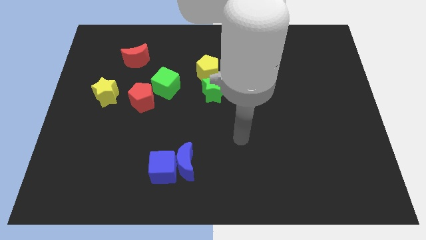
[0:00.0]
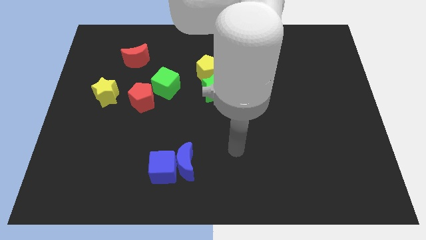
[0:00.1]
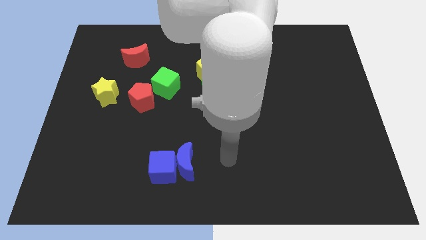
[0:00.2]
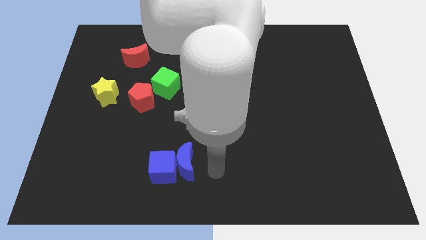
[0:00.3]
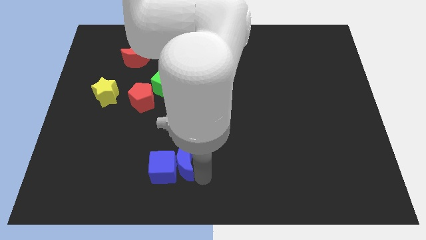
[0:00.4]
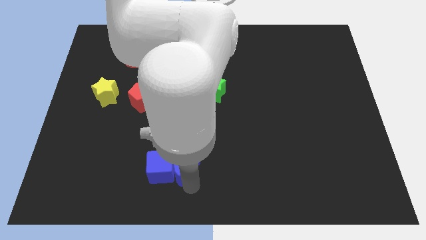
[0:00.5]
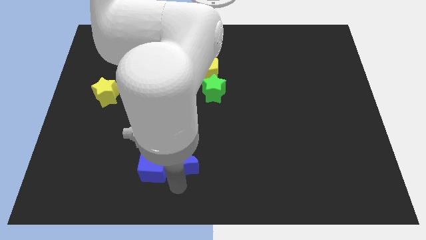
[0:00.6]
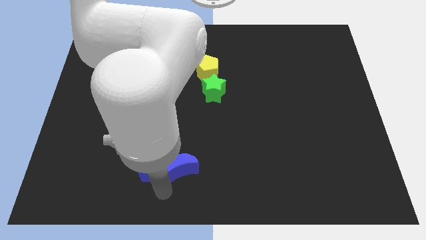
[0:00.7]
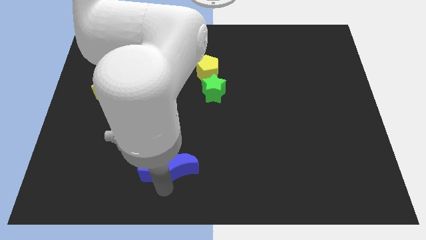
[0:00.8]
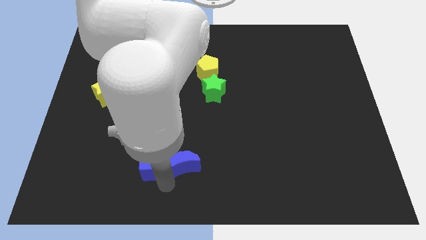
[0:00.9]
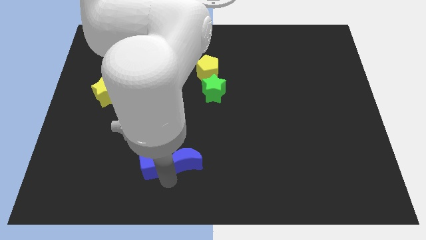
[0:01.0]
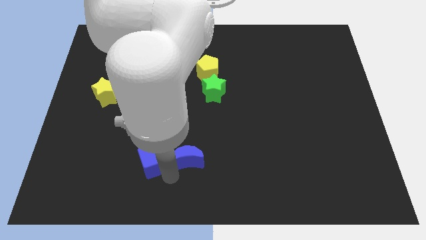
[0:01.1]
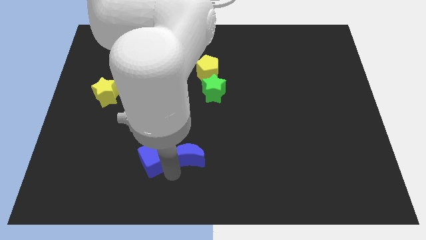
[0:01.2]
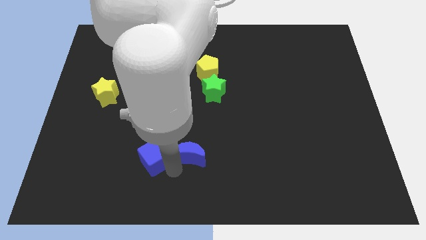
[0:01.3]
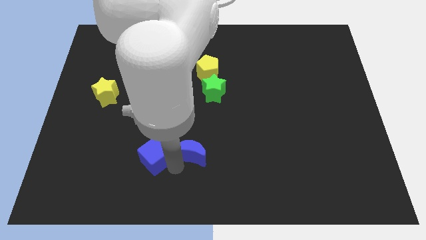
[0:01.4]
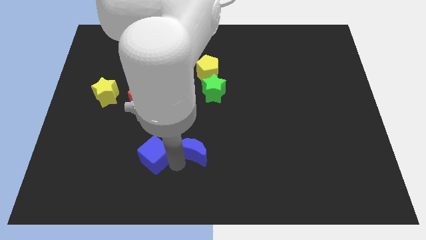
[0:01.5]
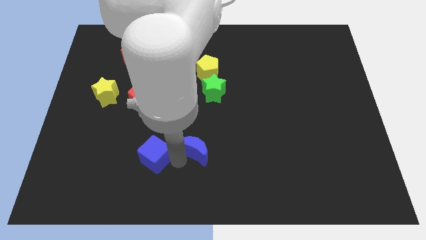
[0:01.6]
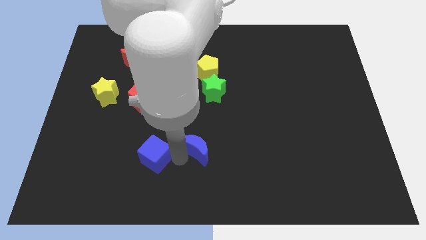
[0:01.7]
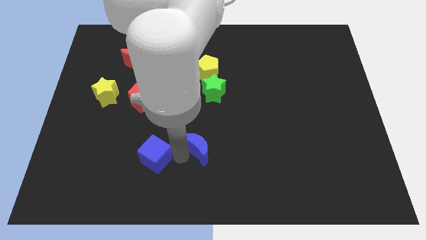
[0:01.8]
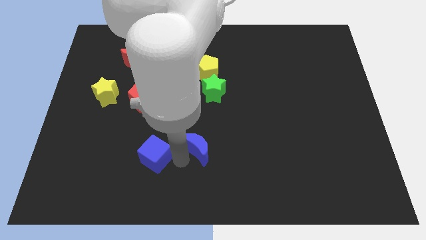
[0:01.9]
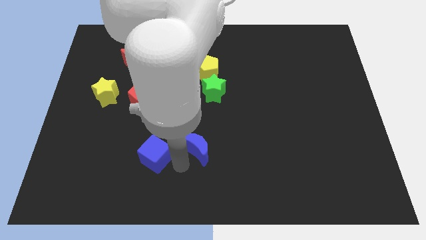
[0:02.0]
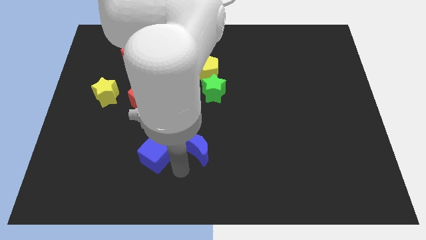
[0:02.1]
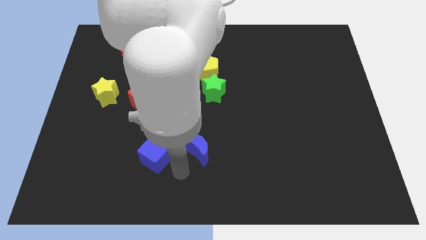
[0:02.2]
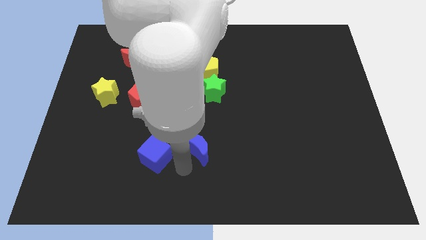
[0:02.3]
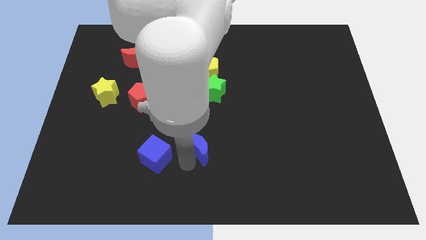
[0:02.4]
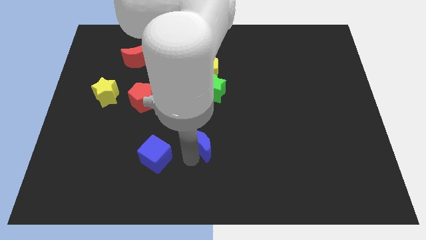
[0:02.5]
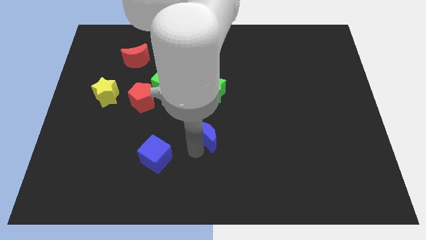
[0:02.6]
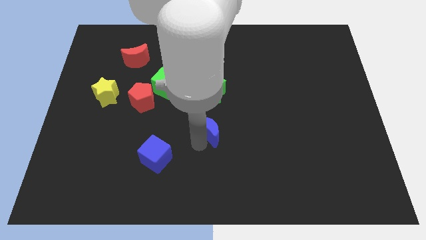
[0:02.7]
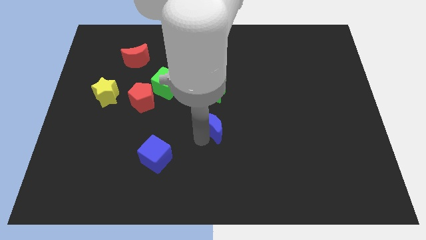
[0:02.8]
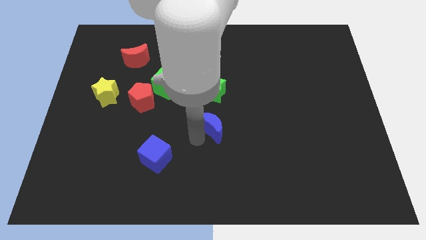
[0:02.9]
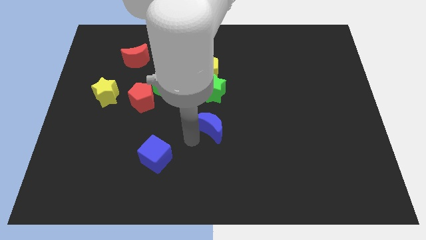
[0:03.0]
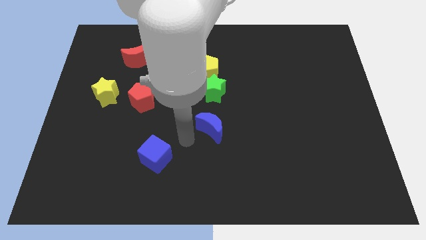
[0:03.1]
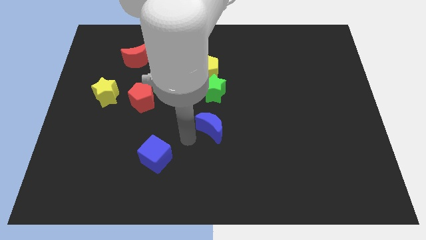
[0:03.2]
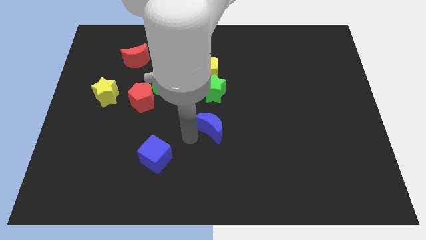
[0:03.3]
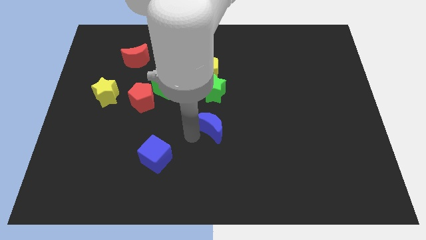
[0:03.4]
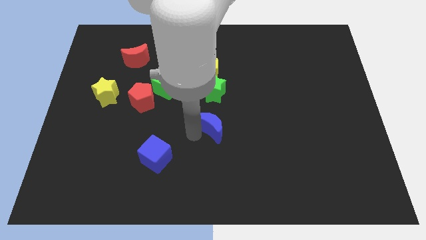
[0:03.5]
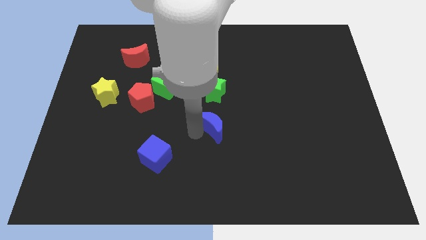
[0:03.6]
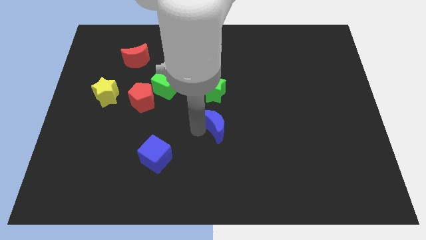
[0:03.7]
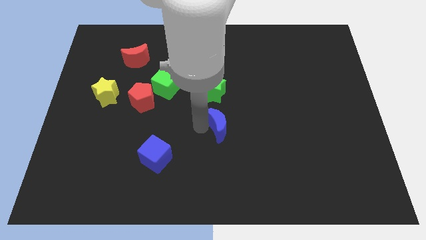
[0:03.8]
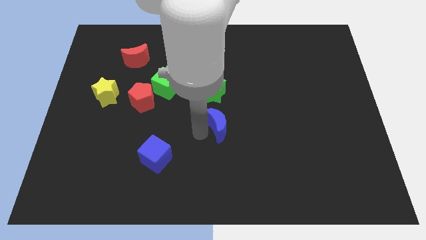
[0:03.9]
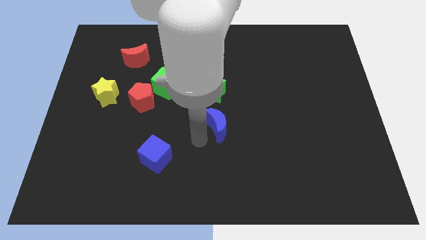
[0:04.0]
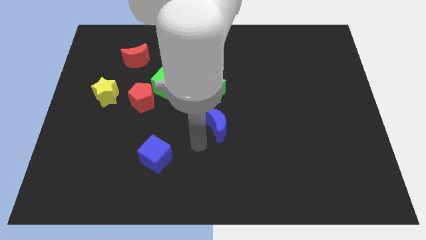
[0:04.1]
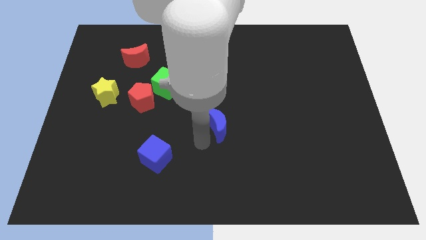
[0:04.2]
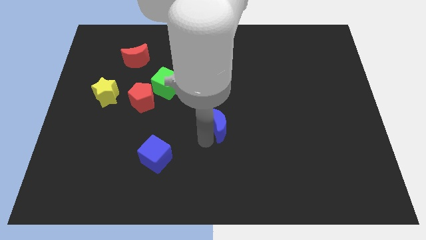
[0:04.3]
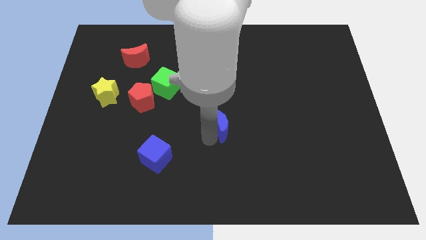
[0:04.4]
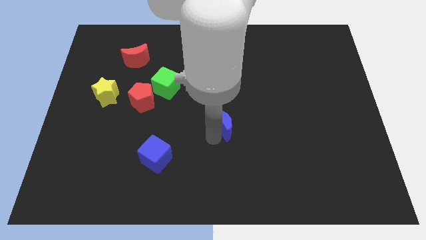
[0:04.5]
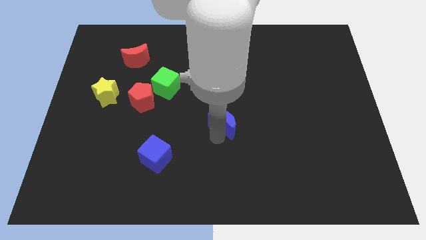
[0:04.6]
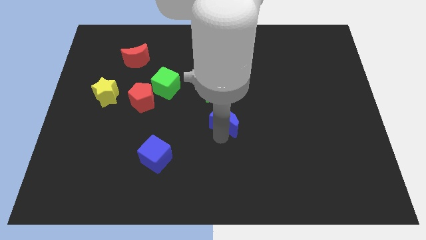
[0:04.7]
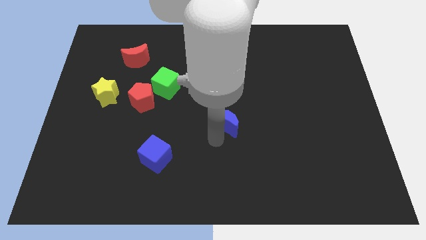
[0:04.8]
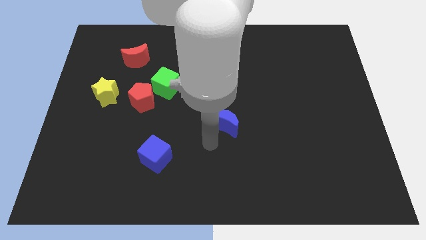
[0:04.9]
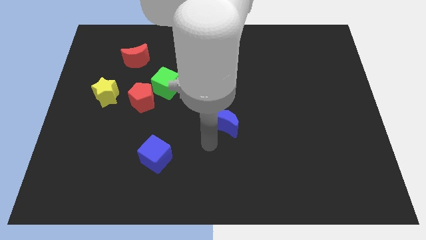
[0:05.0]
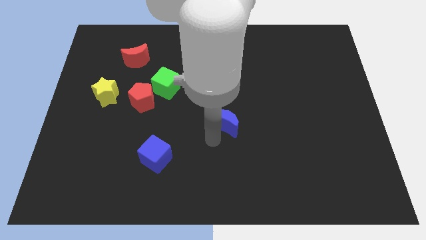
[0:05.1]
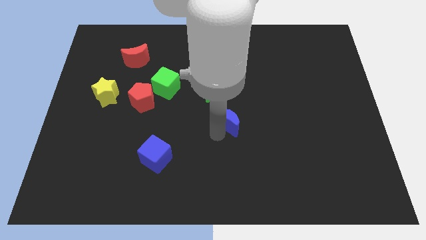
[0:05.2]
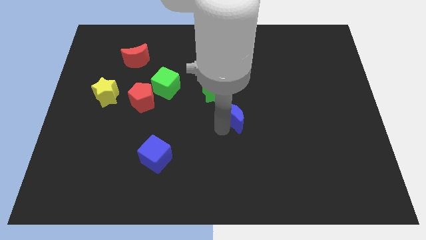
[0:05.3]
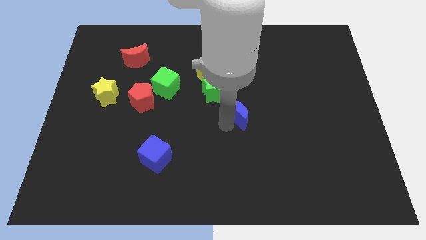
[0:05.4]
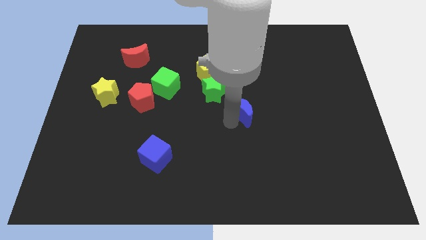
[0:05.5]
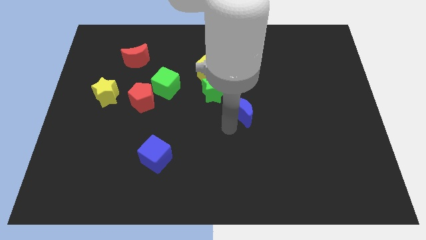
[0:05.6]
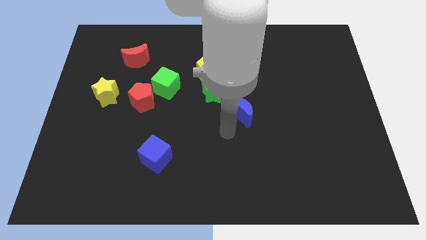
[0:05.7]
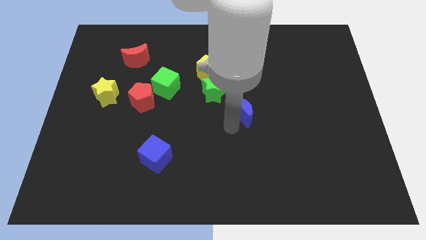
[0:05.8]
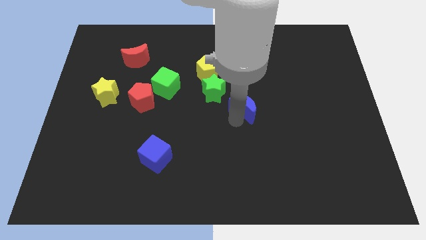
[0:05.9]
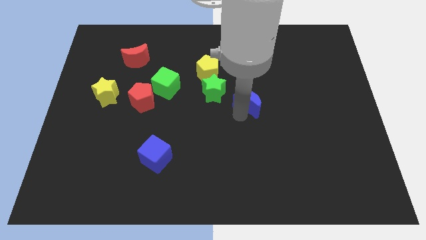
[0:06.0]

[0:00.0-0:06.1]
move the blue moon right of the green star
